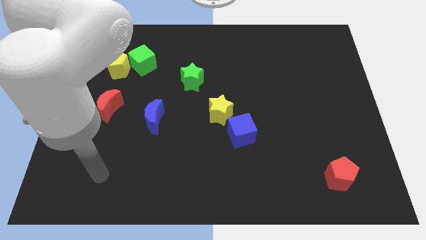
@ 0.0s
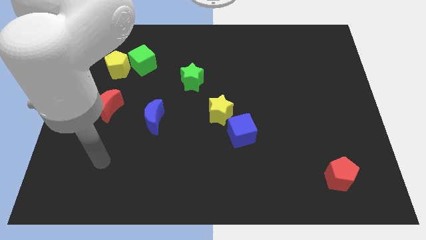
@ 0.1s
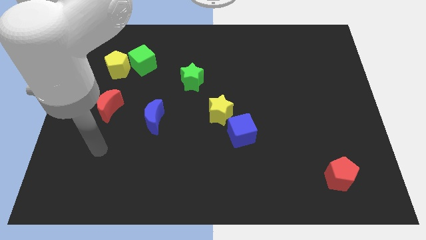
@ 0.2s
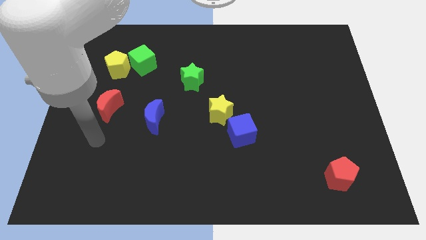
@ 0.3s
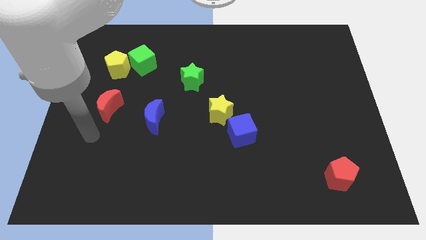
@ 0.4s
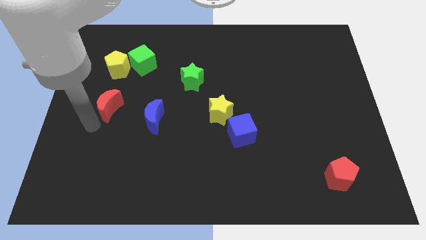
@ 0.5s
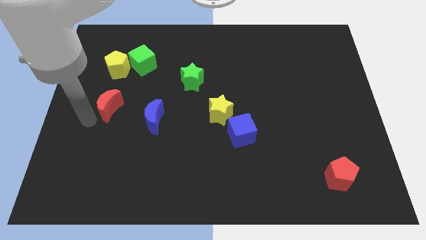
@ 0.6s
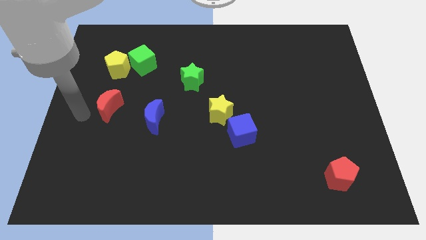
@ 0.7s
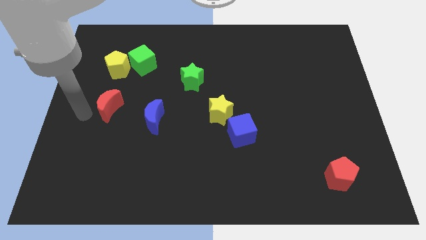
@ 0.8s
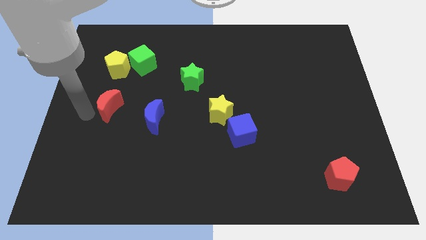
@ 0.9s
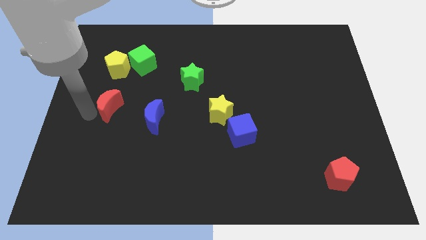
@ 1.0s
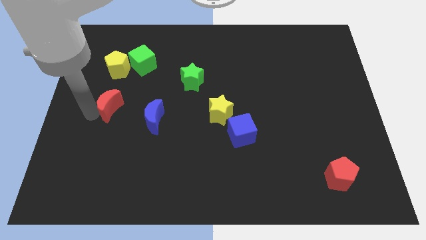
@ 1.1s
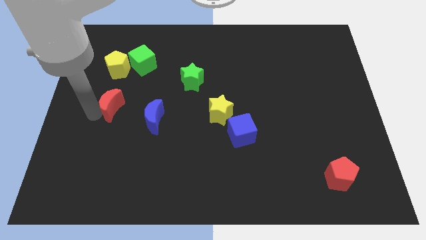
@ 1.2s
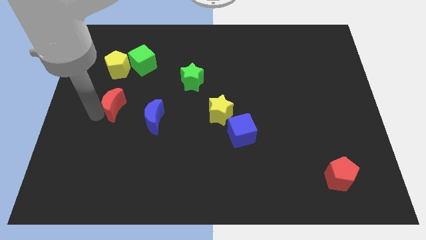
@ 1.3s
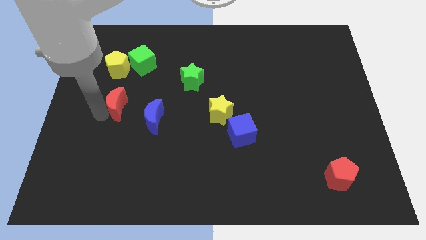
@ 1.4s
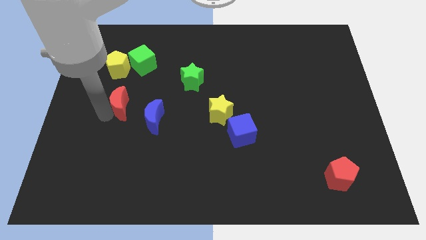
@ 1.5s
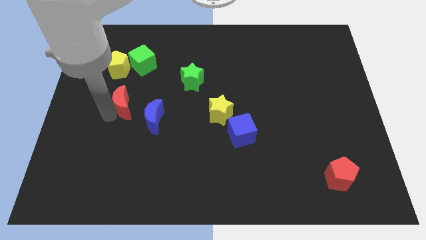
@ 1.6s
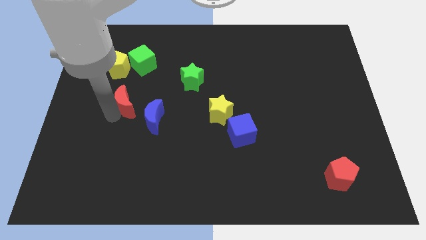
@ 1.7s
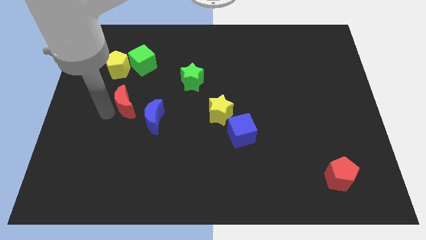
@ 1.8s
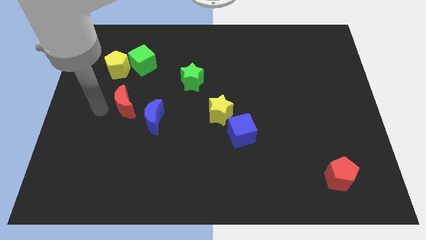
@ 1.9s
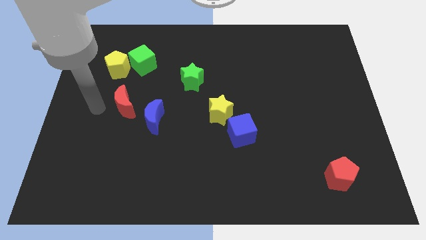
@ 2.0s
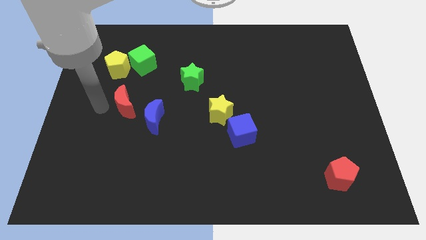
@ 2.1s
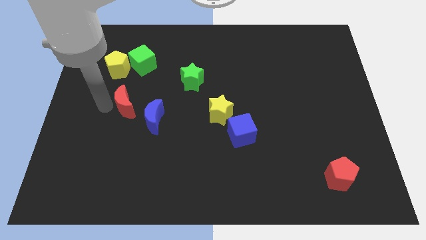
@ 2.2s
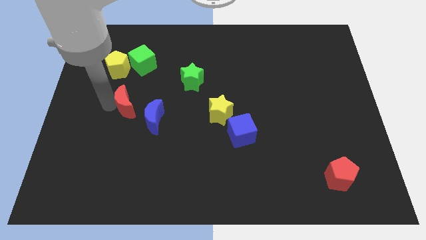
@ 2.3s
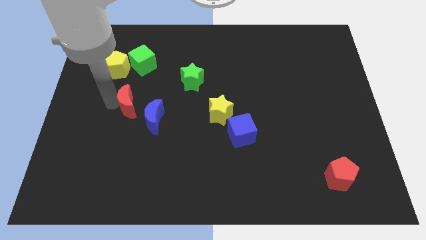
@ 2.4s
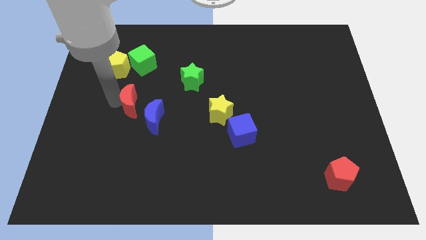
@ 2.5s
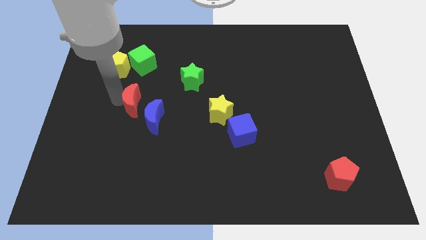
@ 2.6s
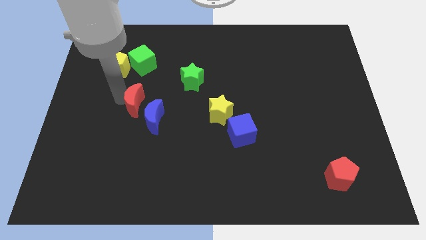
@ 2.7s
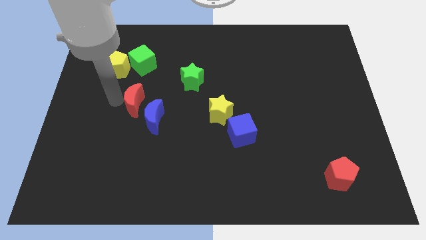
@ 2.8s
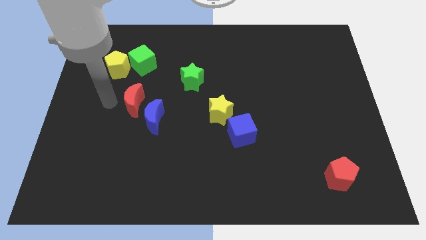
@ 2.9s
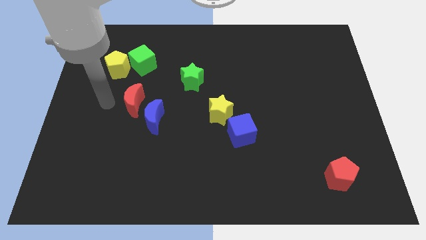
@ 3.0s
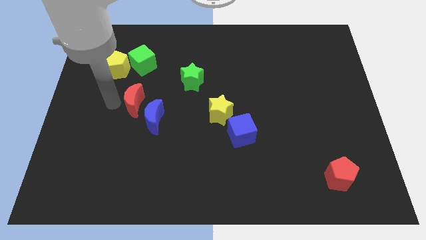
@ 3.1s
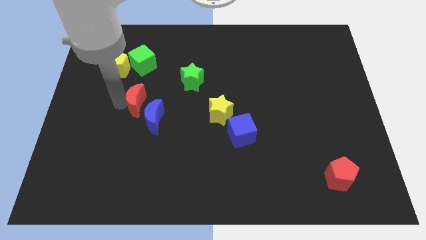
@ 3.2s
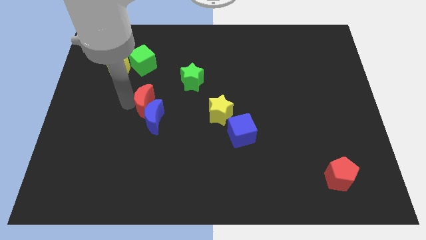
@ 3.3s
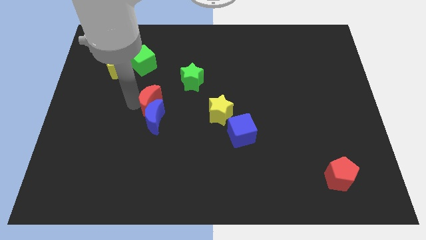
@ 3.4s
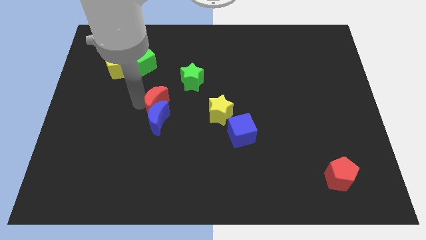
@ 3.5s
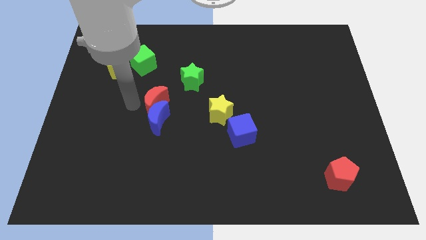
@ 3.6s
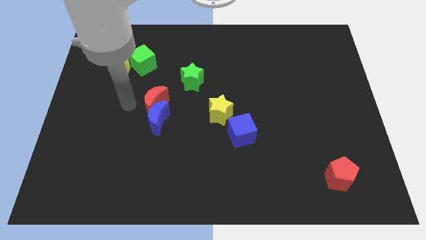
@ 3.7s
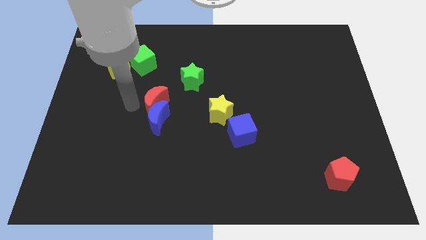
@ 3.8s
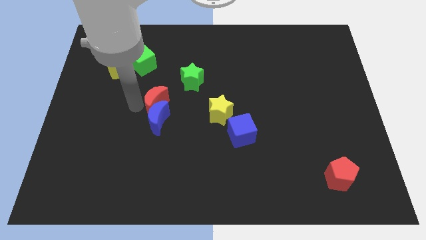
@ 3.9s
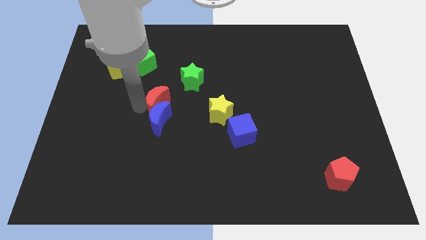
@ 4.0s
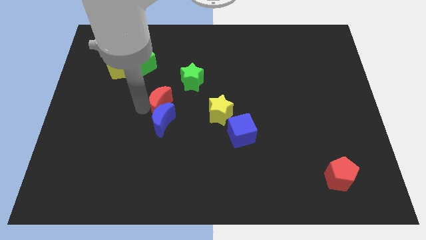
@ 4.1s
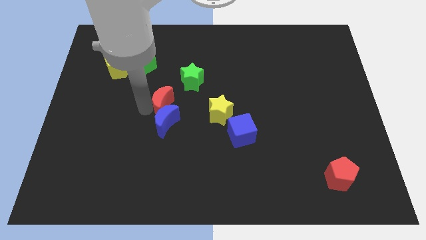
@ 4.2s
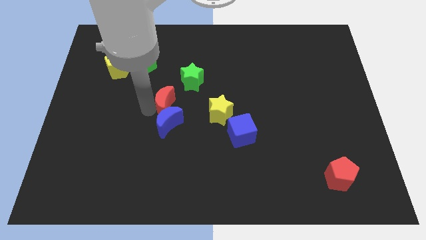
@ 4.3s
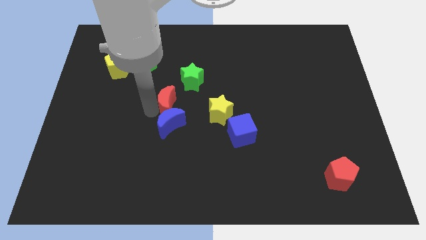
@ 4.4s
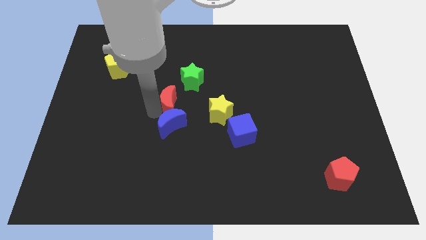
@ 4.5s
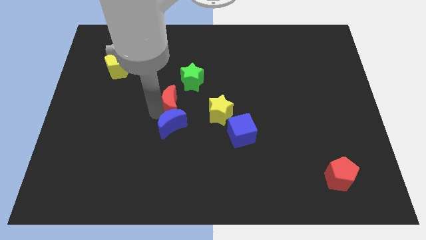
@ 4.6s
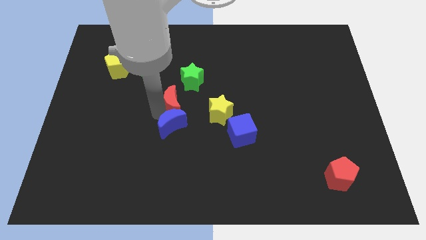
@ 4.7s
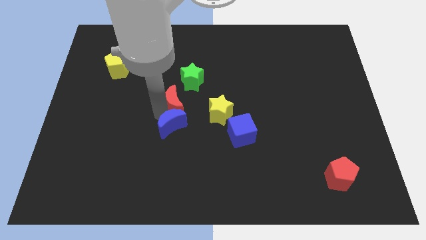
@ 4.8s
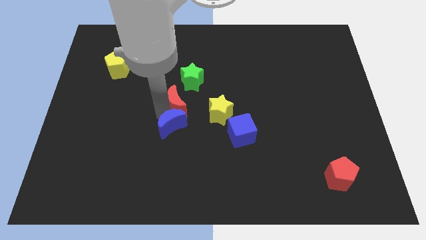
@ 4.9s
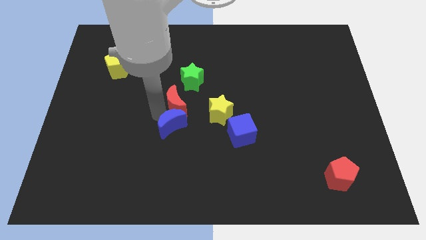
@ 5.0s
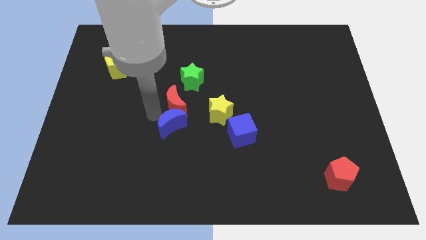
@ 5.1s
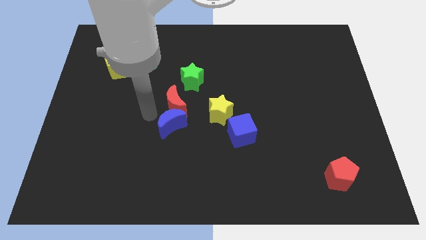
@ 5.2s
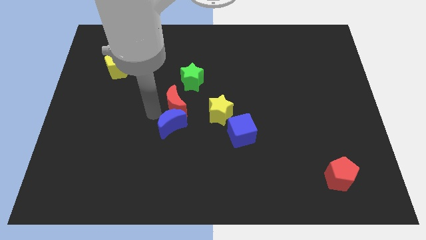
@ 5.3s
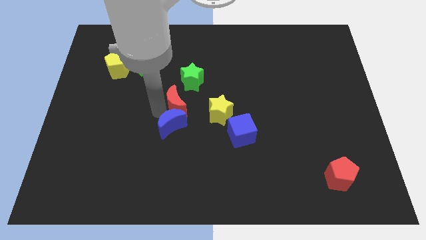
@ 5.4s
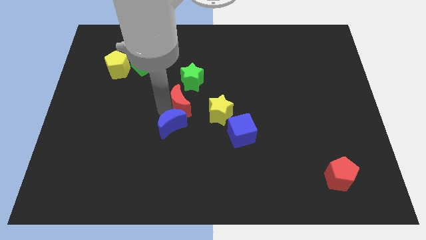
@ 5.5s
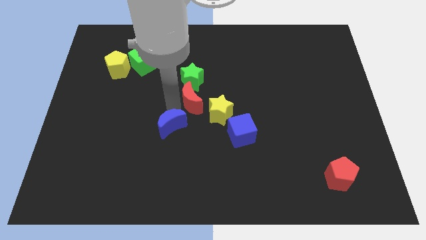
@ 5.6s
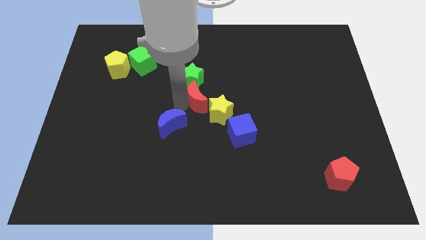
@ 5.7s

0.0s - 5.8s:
move the red moon to the right

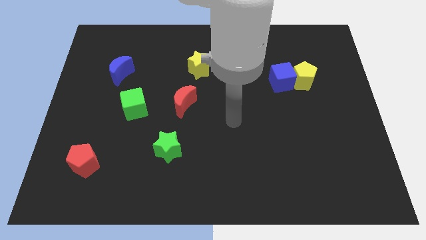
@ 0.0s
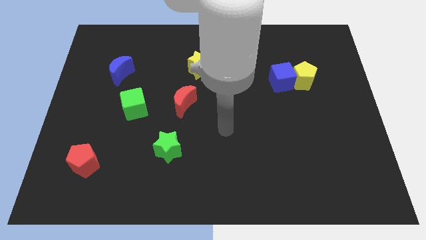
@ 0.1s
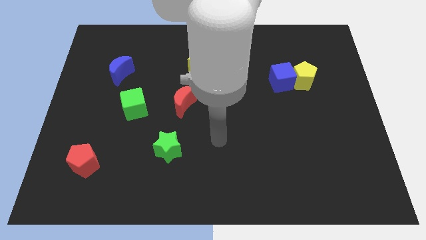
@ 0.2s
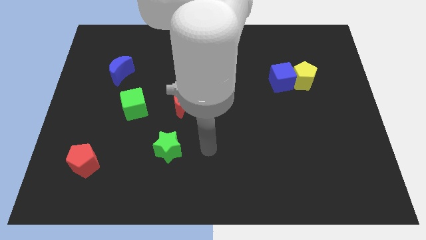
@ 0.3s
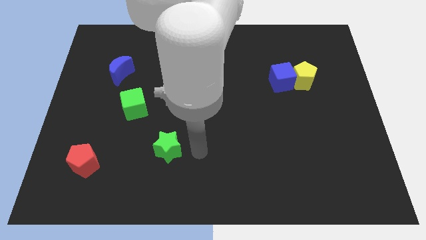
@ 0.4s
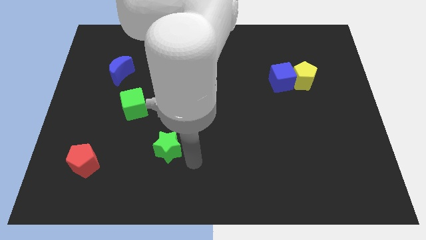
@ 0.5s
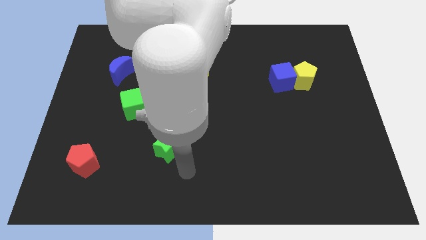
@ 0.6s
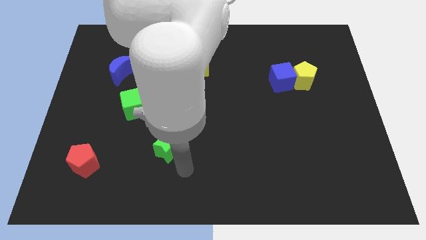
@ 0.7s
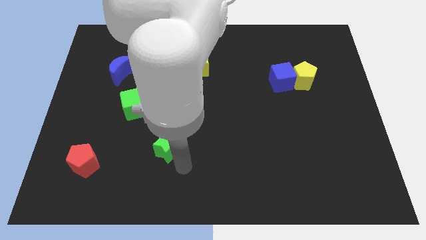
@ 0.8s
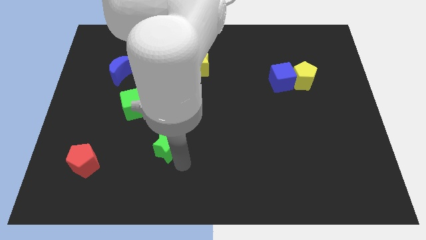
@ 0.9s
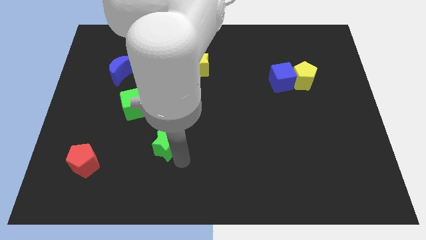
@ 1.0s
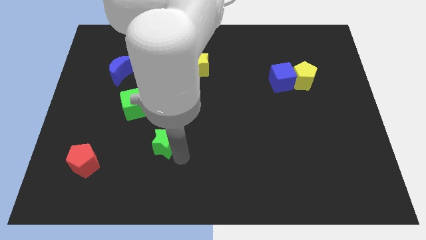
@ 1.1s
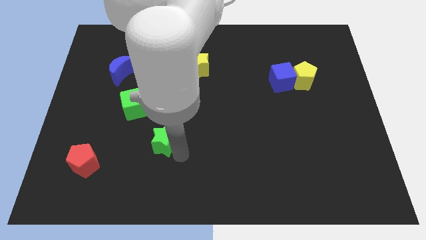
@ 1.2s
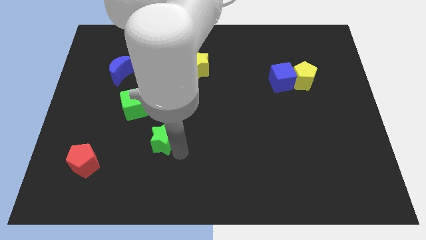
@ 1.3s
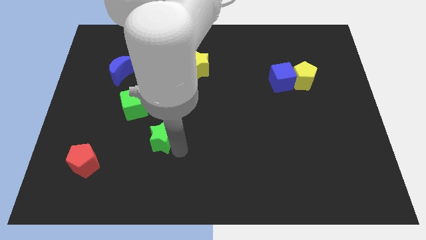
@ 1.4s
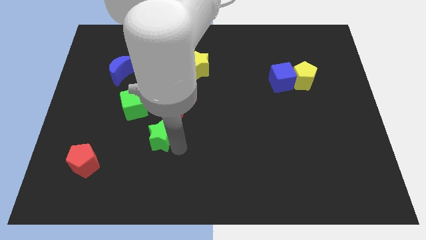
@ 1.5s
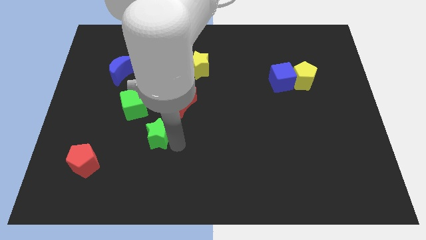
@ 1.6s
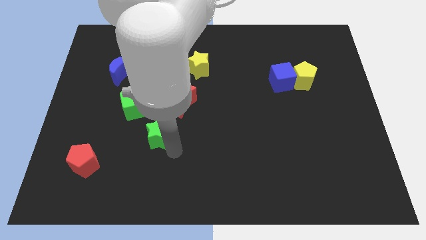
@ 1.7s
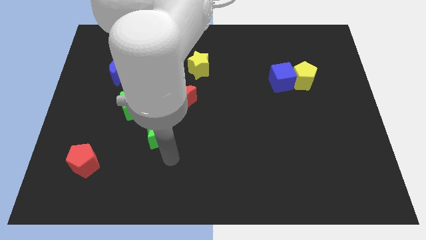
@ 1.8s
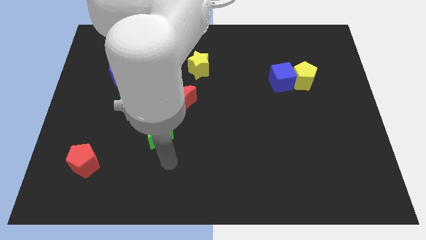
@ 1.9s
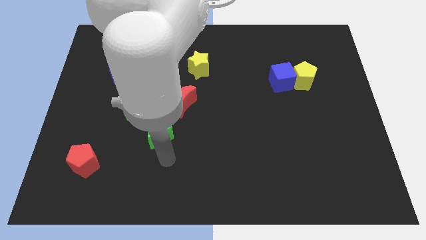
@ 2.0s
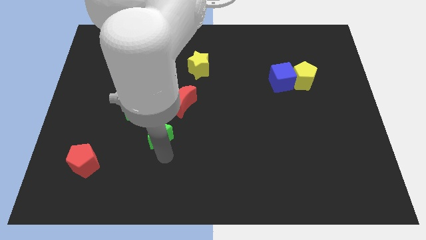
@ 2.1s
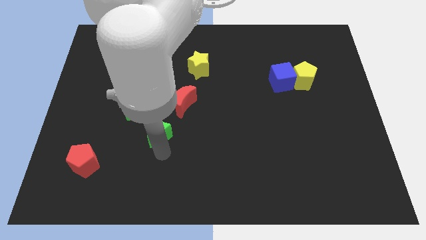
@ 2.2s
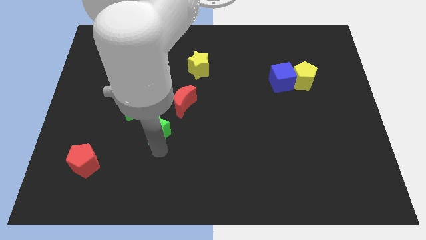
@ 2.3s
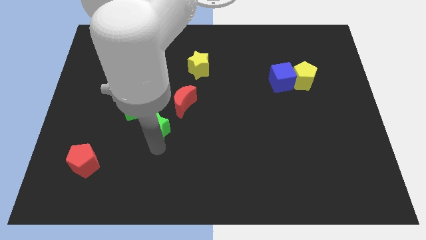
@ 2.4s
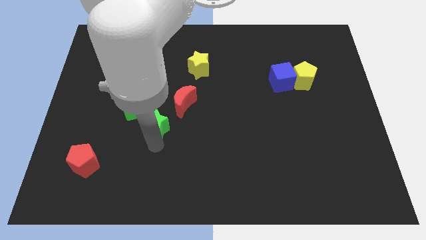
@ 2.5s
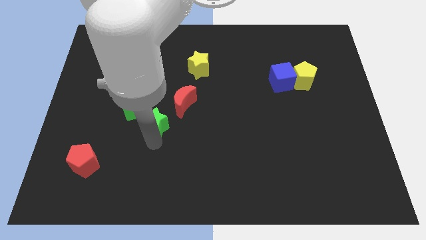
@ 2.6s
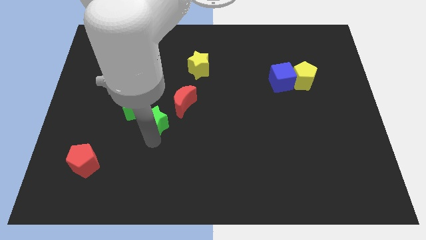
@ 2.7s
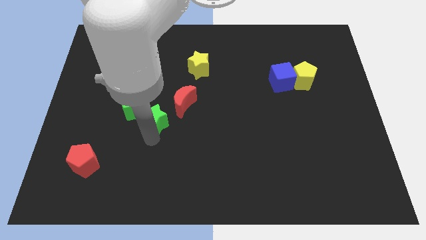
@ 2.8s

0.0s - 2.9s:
move the green star upwards a bit
